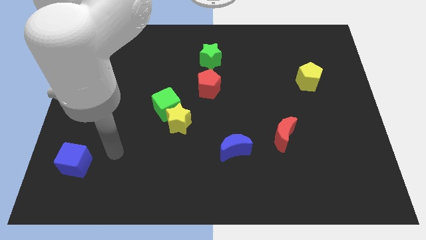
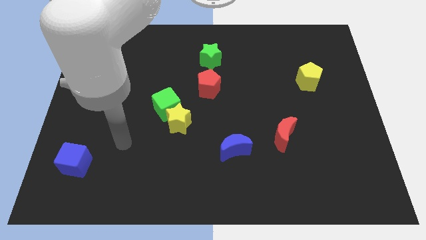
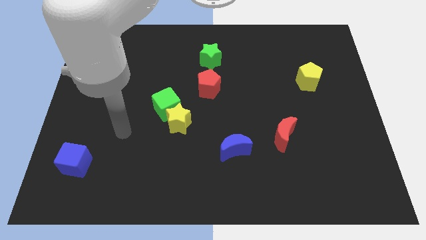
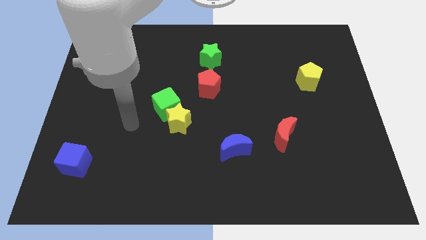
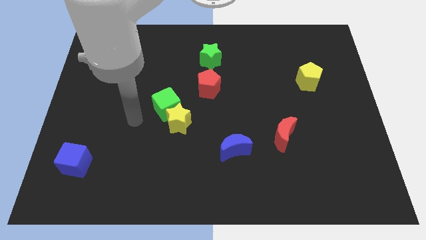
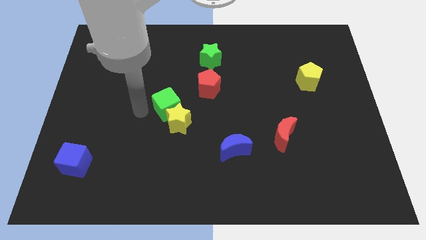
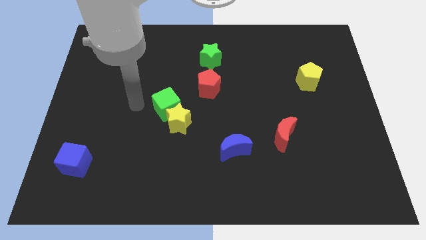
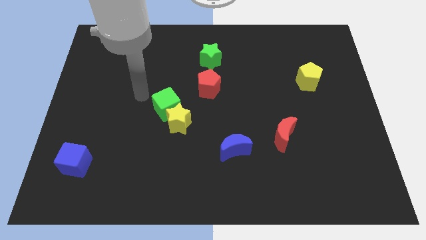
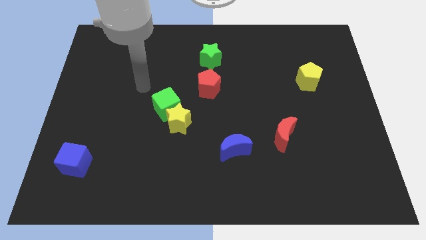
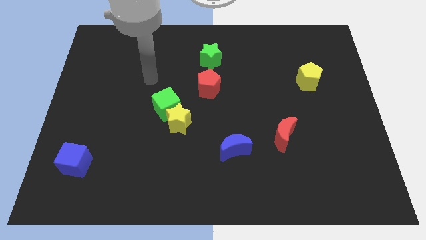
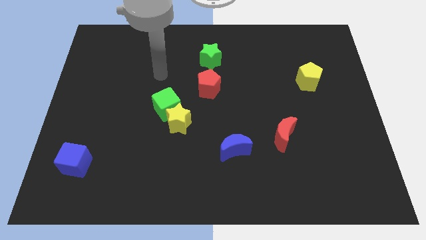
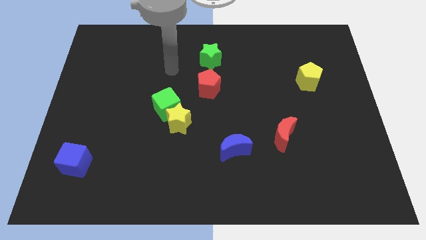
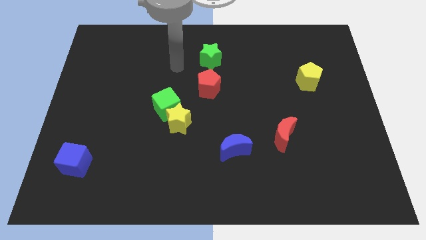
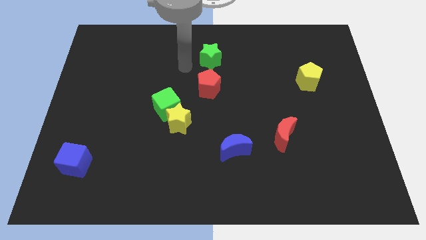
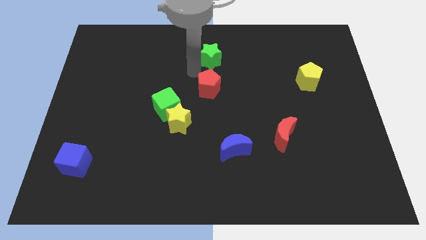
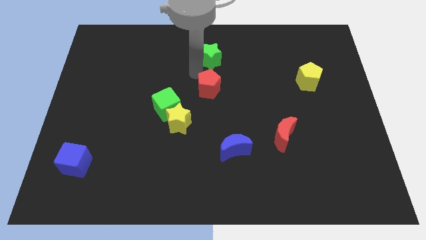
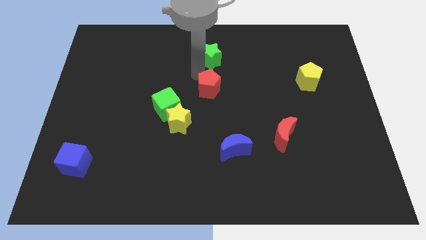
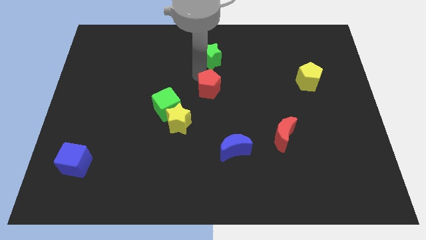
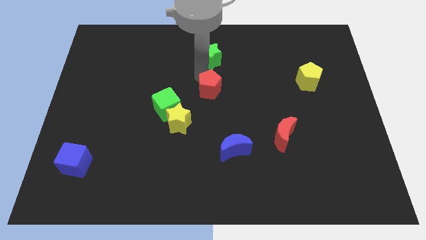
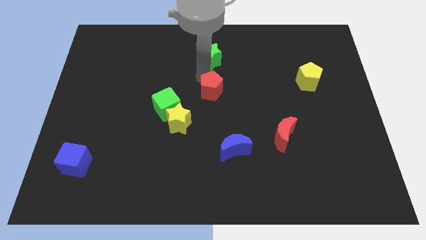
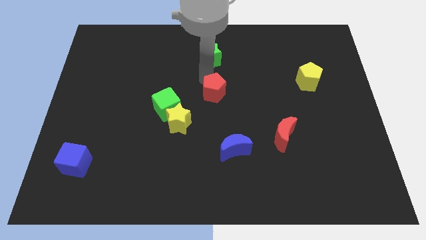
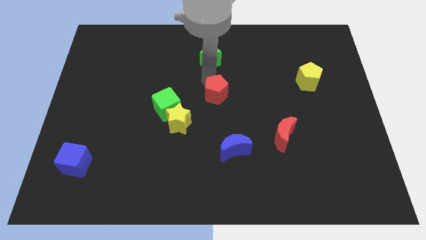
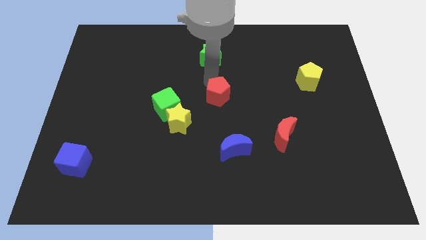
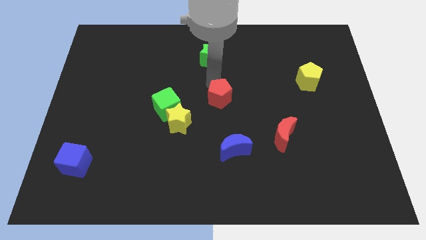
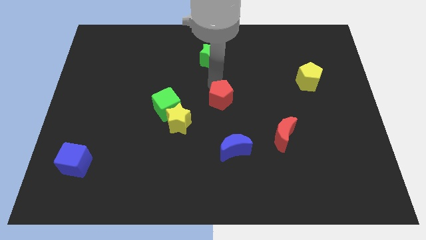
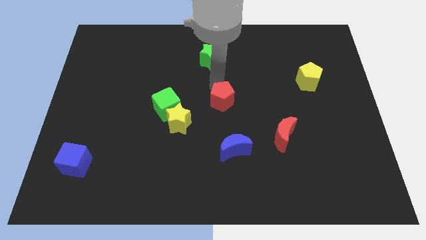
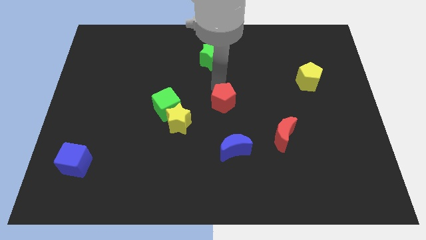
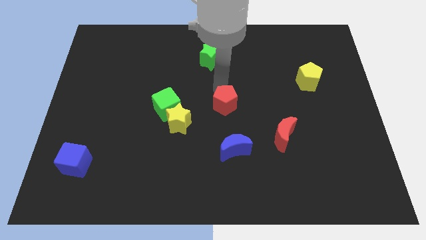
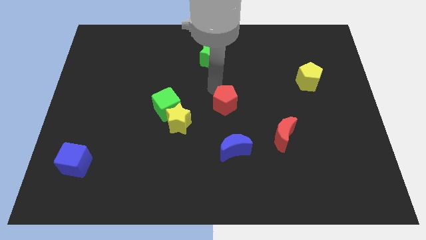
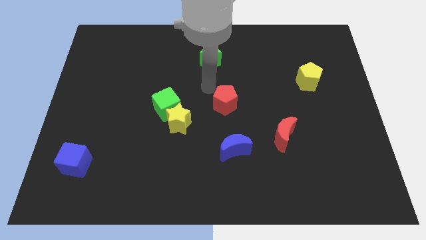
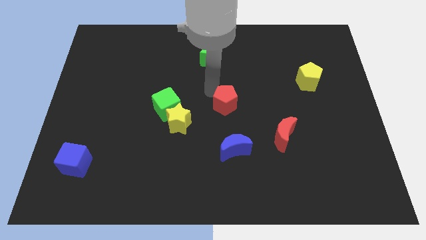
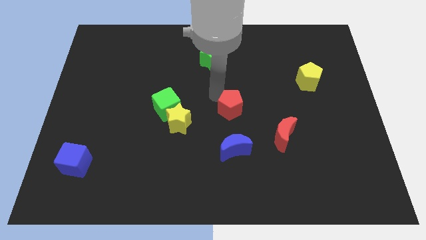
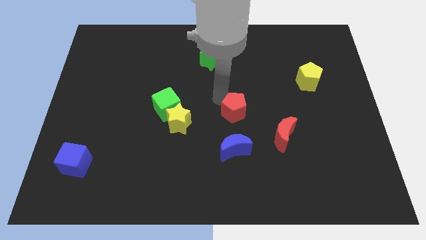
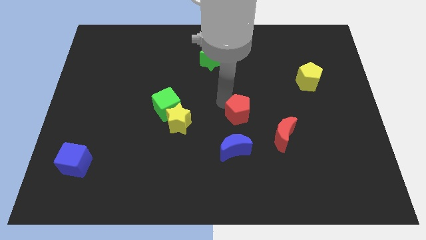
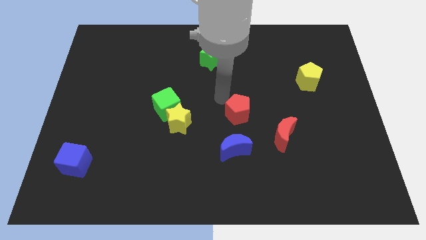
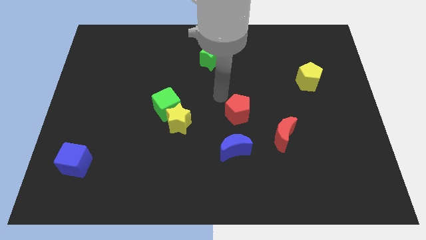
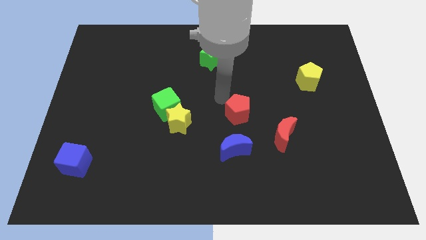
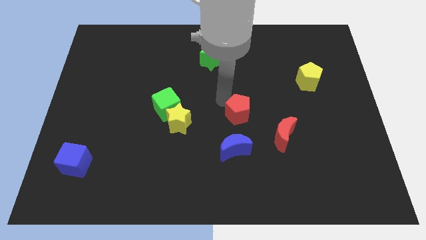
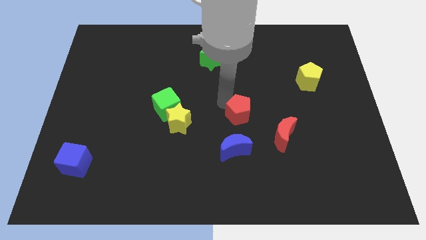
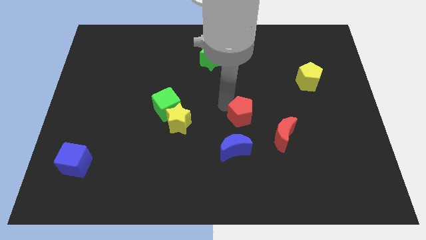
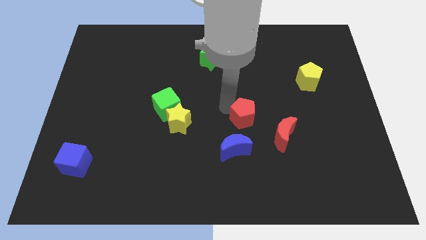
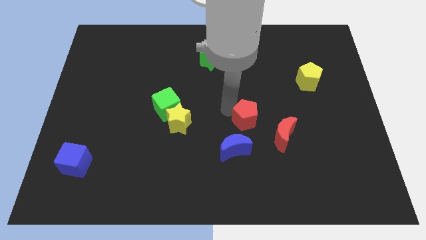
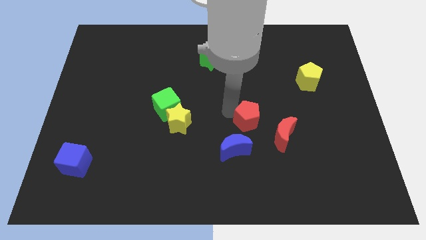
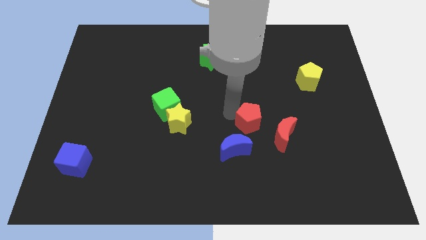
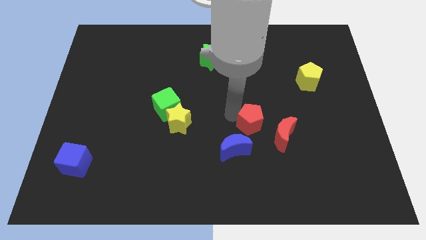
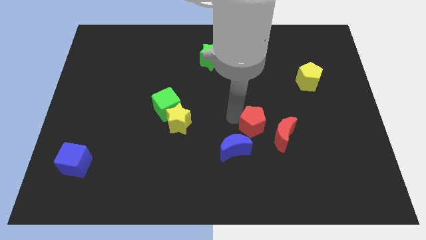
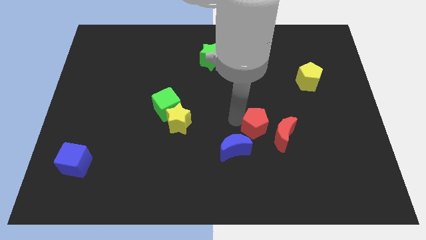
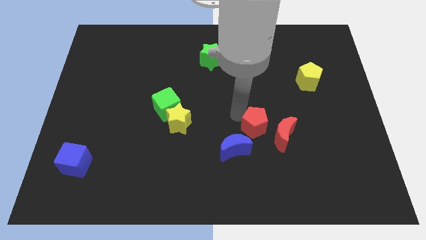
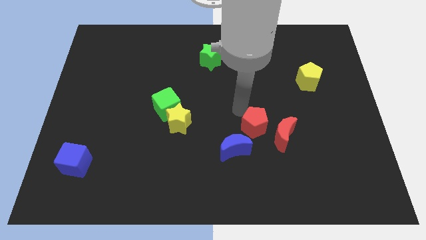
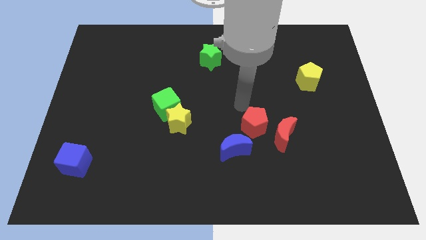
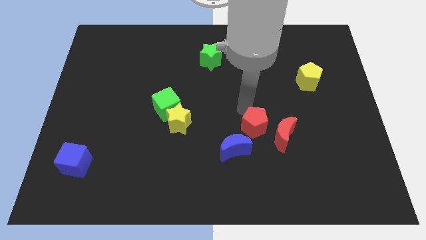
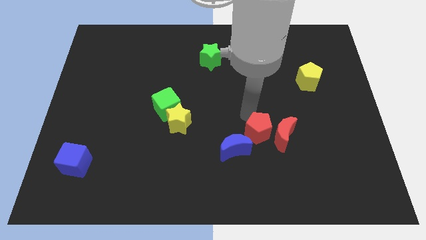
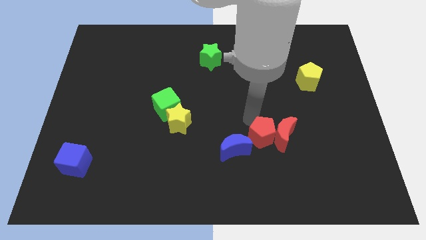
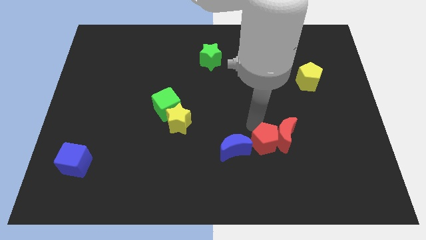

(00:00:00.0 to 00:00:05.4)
push the red pentagon downwards and right

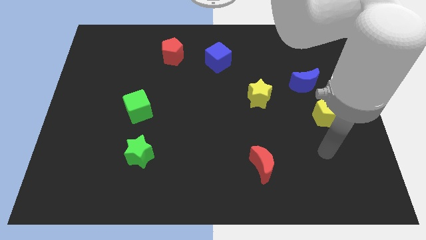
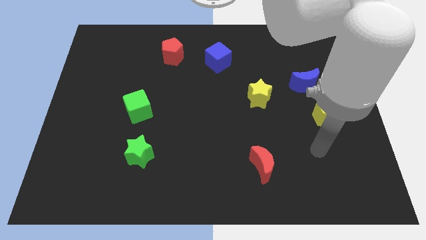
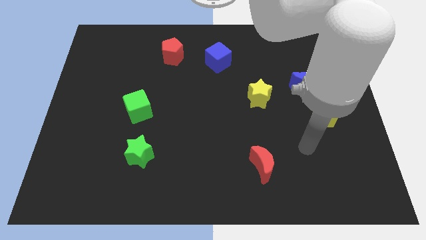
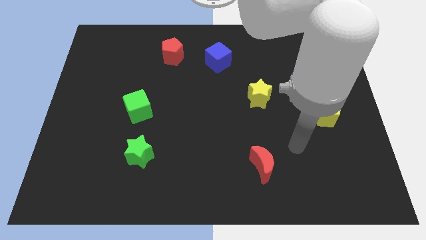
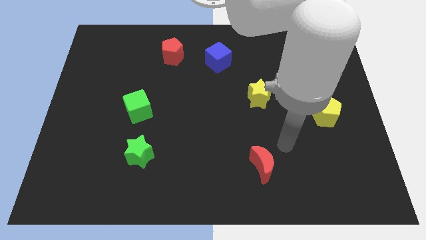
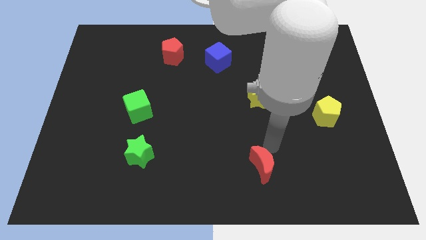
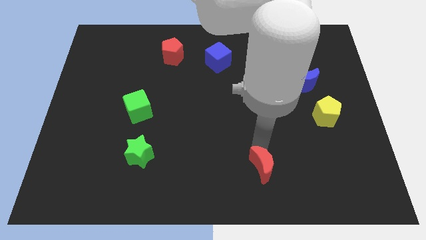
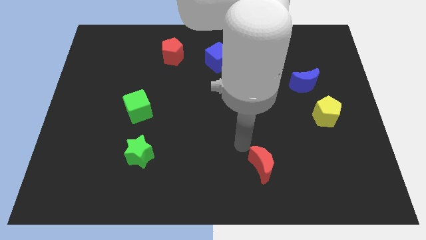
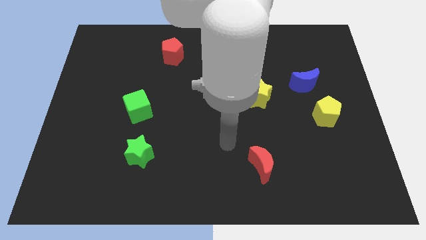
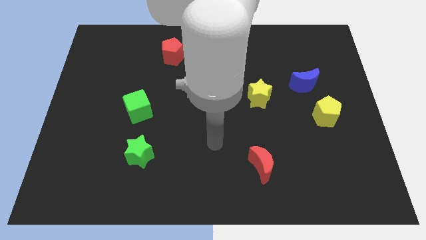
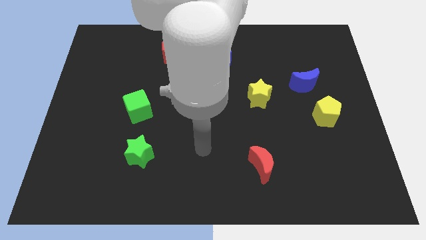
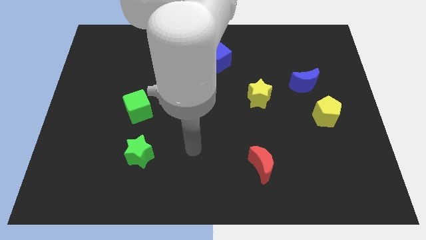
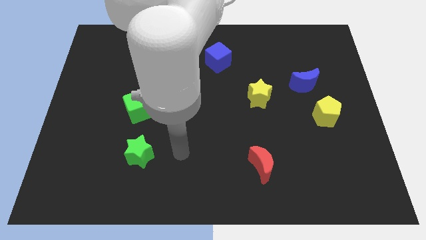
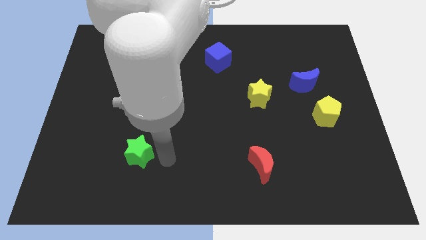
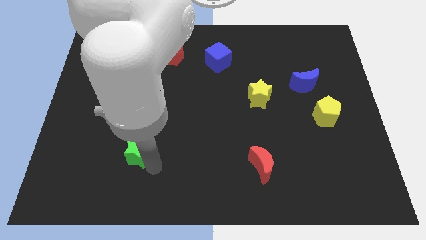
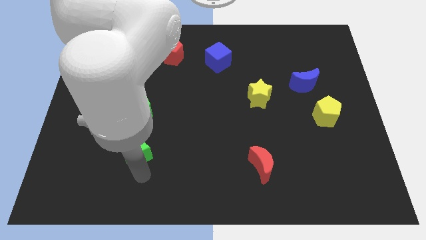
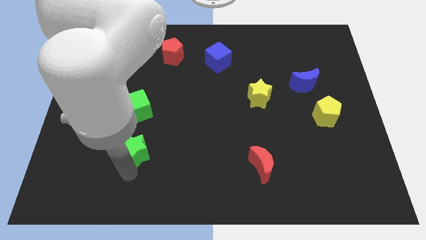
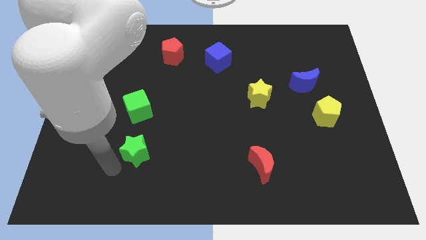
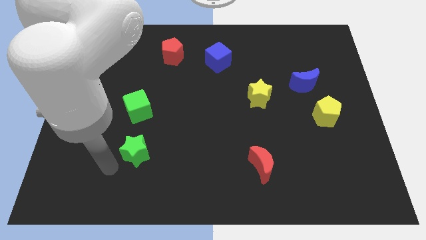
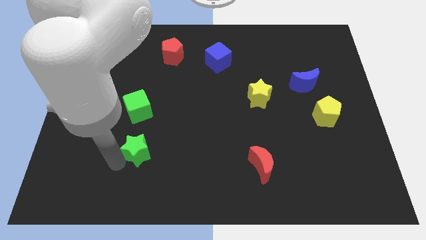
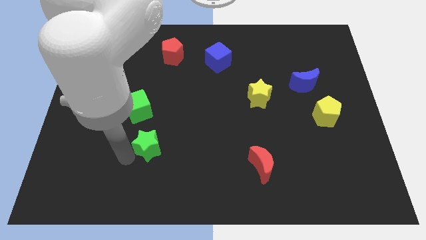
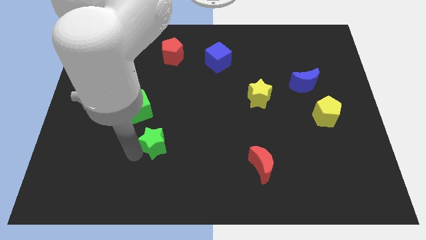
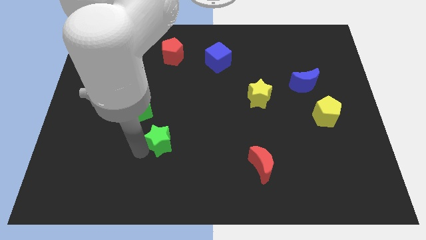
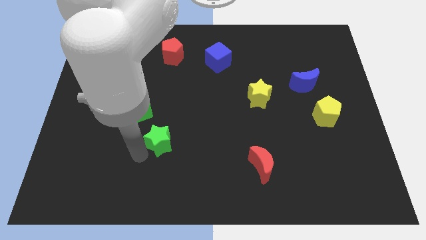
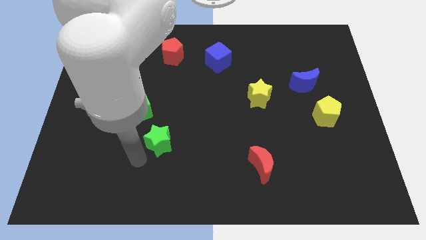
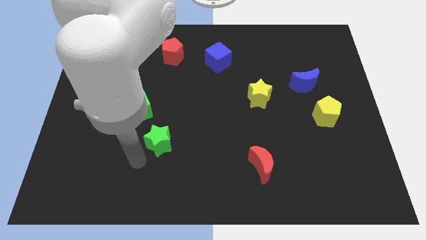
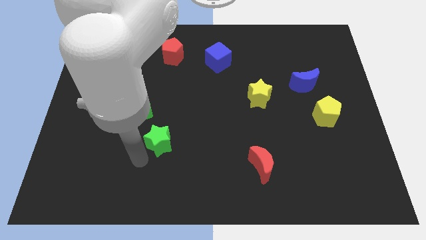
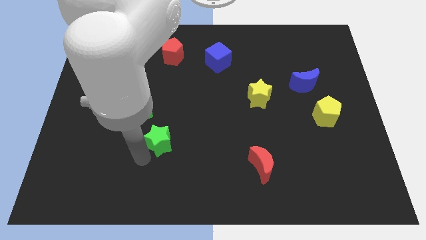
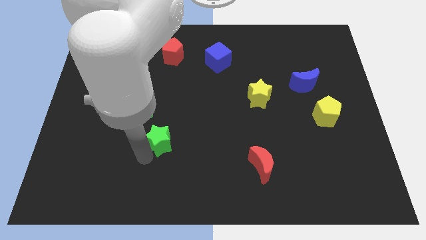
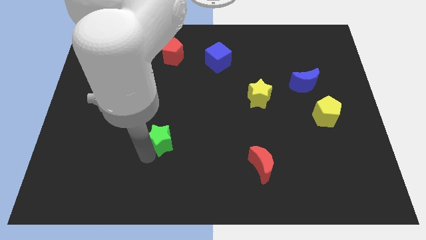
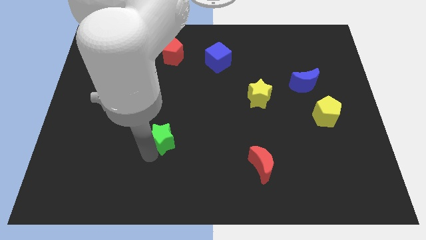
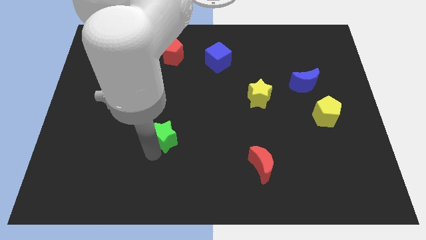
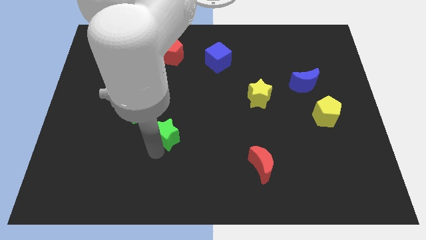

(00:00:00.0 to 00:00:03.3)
slightly move the green star upwards and then right
